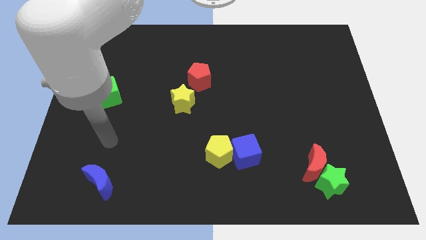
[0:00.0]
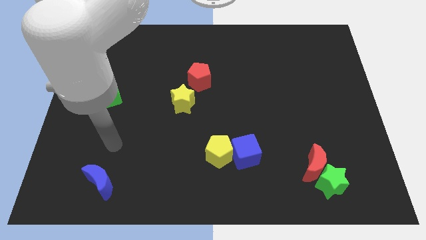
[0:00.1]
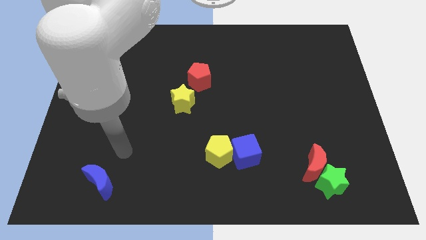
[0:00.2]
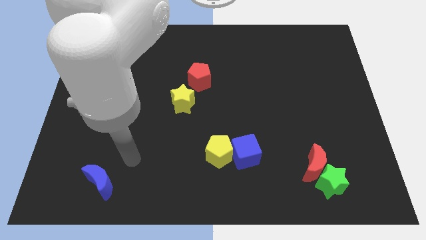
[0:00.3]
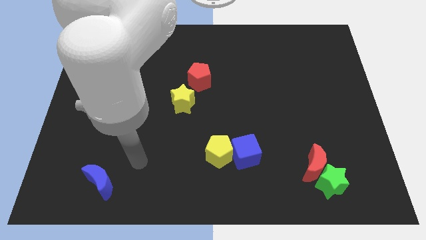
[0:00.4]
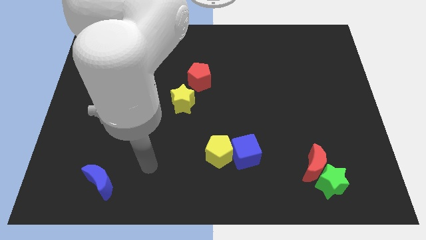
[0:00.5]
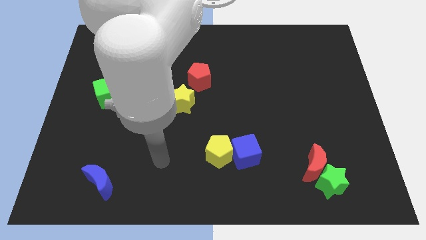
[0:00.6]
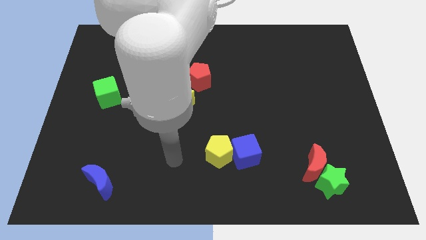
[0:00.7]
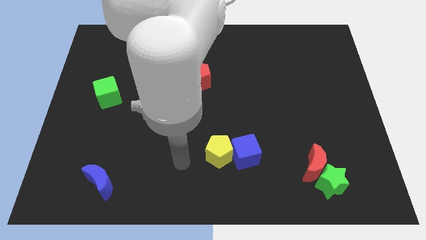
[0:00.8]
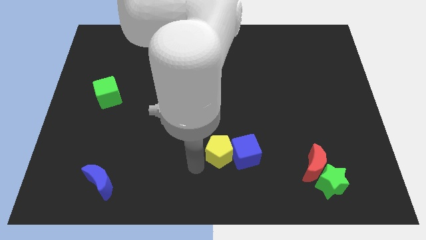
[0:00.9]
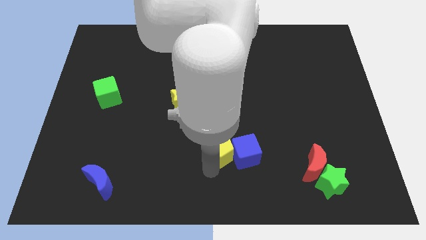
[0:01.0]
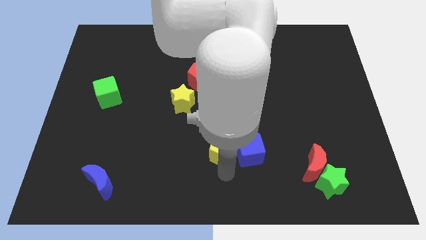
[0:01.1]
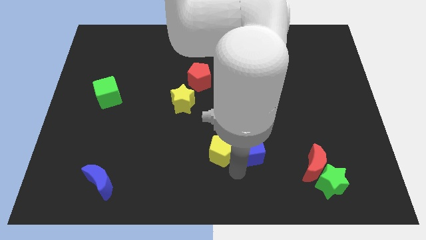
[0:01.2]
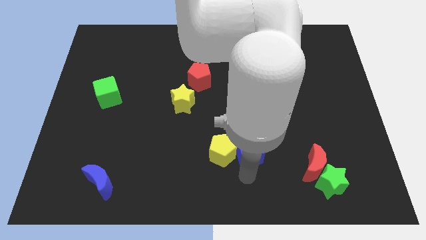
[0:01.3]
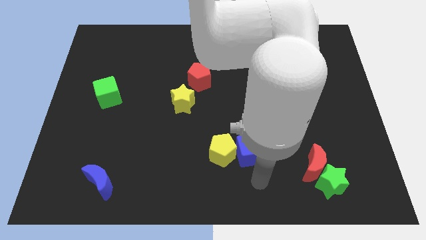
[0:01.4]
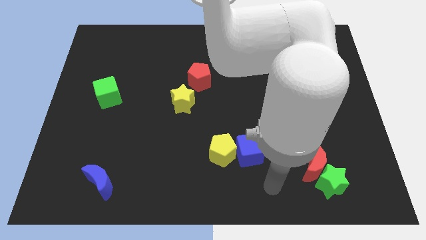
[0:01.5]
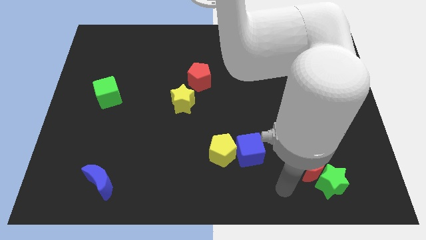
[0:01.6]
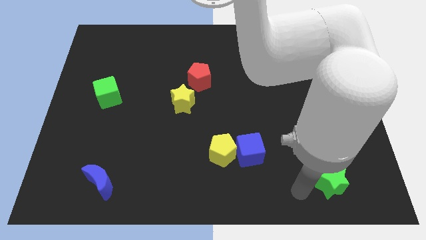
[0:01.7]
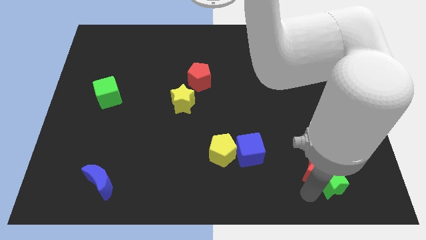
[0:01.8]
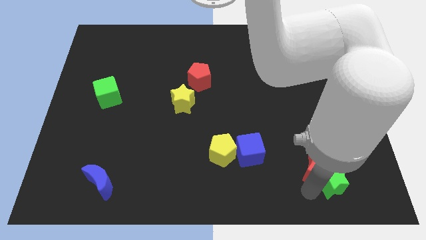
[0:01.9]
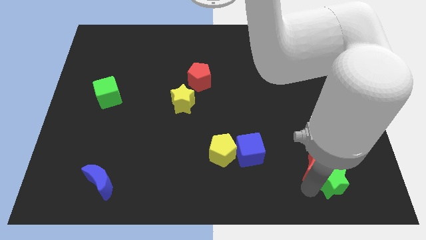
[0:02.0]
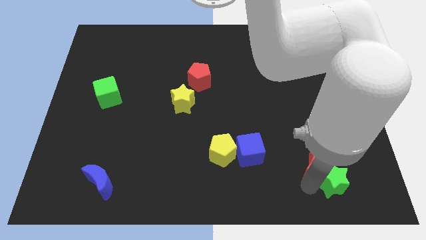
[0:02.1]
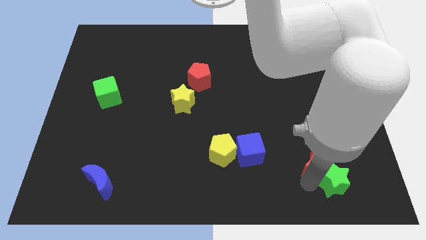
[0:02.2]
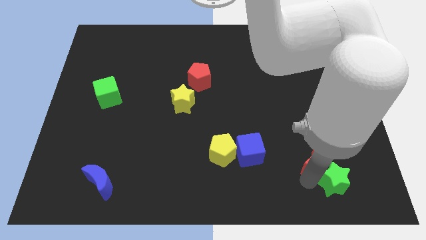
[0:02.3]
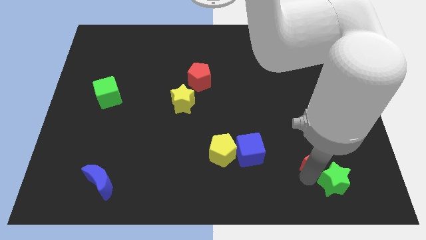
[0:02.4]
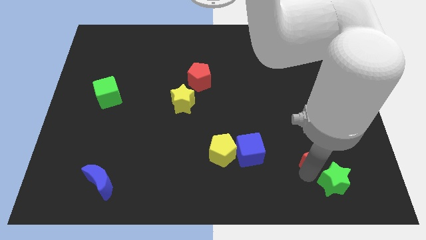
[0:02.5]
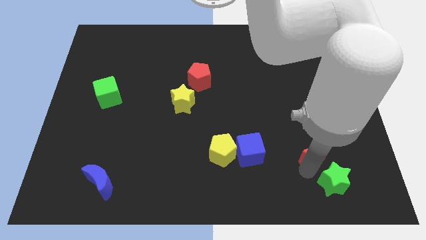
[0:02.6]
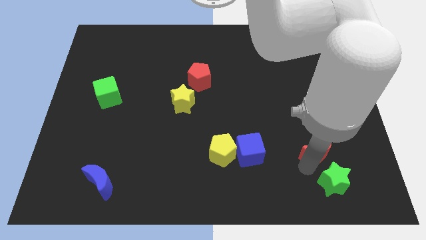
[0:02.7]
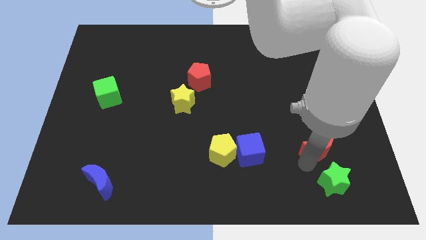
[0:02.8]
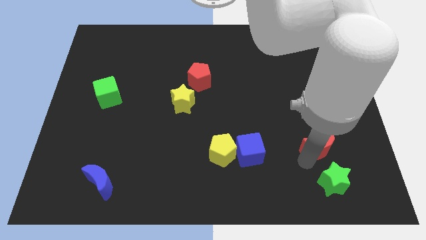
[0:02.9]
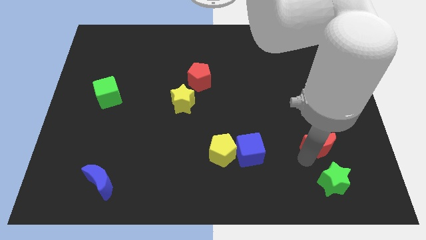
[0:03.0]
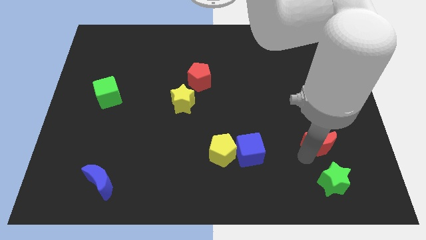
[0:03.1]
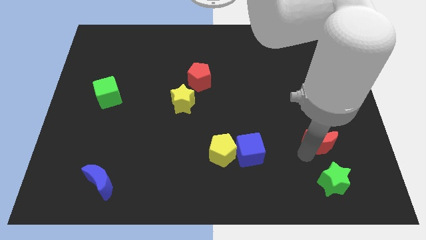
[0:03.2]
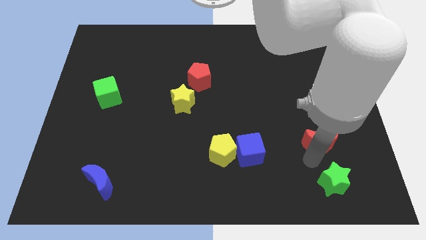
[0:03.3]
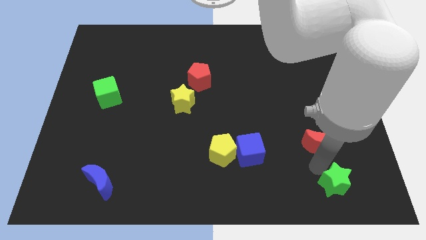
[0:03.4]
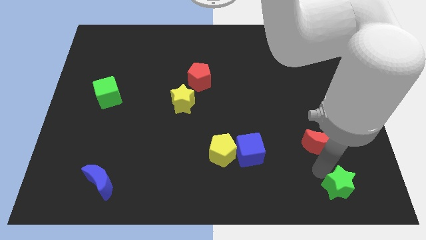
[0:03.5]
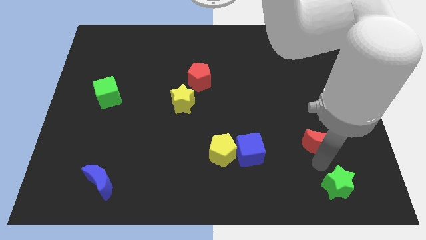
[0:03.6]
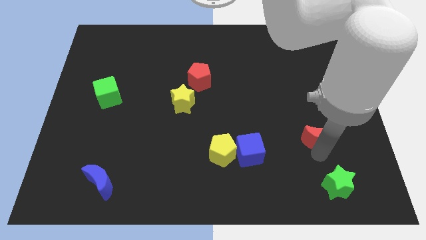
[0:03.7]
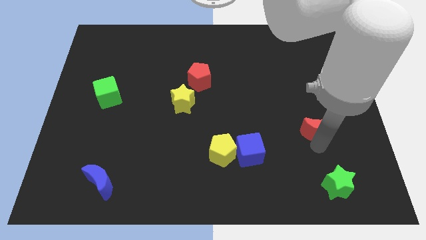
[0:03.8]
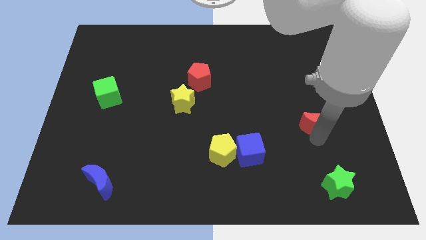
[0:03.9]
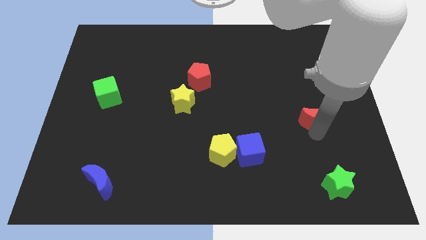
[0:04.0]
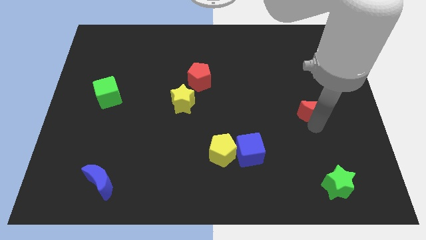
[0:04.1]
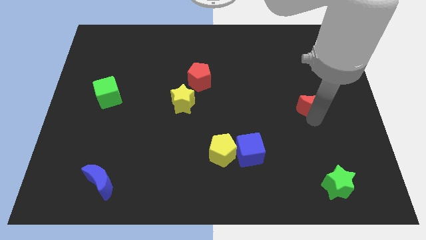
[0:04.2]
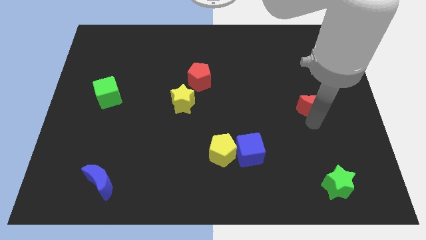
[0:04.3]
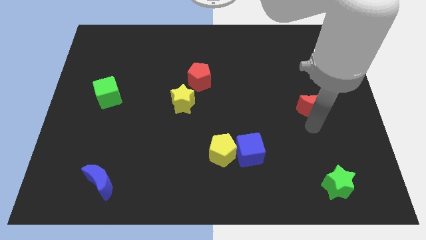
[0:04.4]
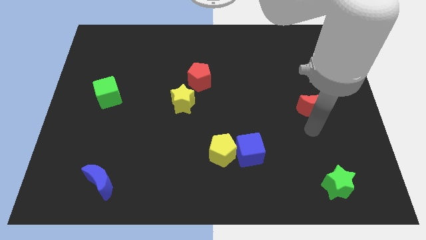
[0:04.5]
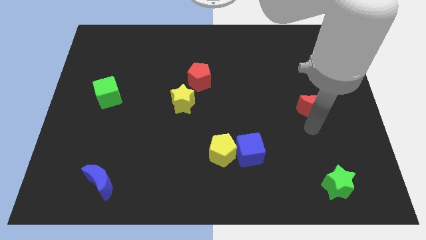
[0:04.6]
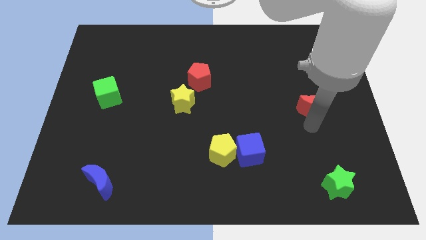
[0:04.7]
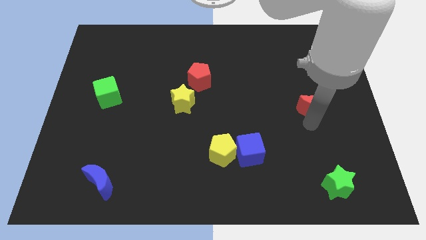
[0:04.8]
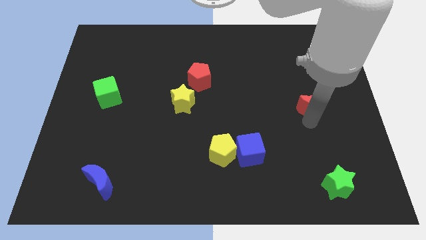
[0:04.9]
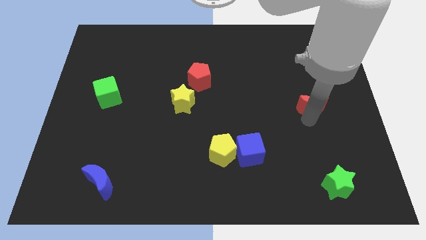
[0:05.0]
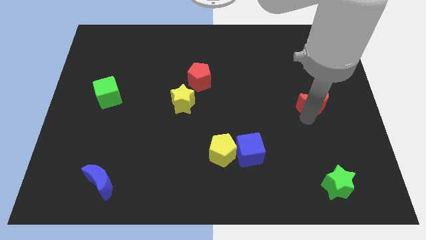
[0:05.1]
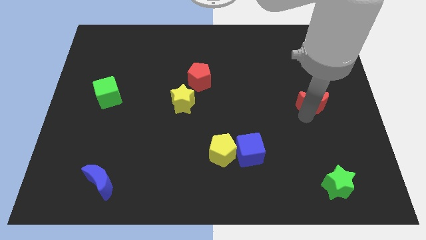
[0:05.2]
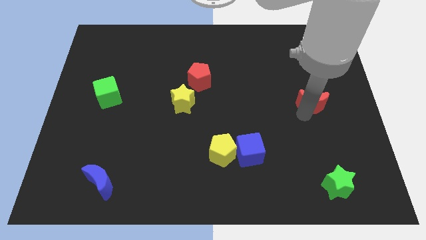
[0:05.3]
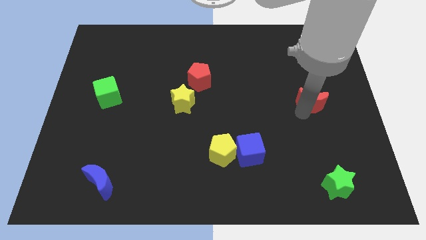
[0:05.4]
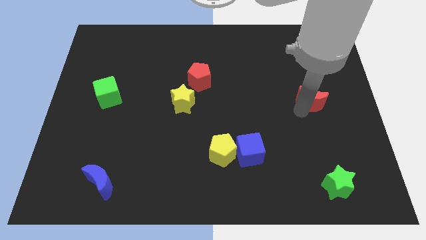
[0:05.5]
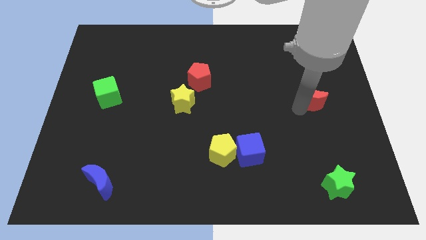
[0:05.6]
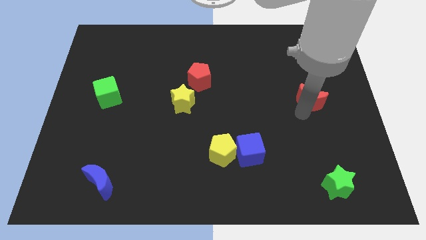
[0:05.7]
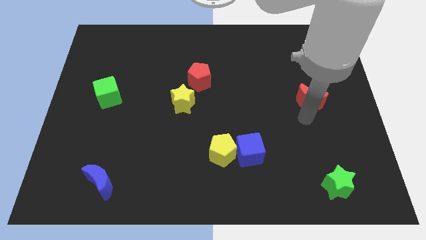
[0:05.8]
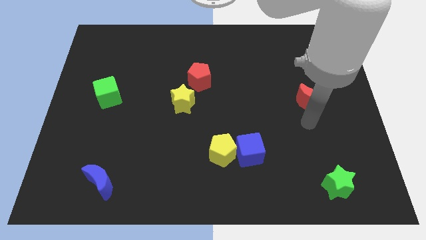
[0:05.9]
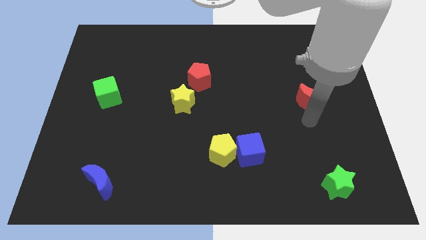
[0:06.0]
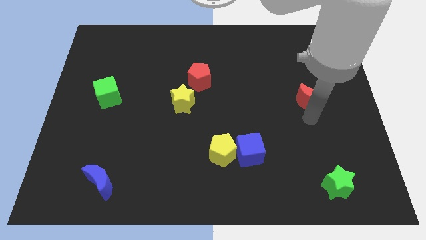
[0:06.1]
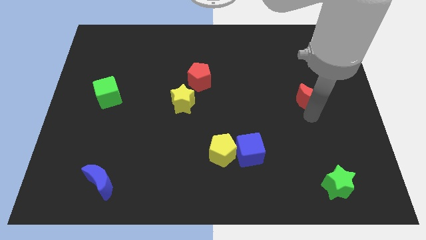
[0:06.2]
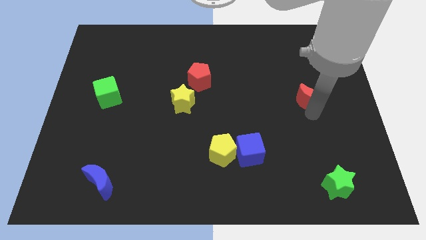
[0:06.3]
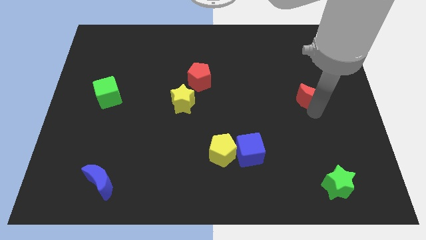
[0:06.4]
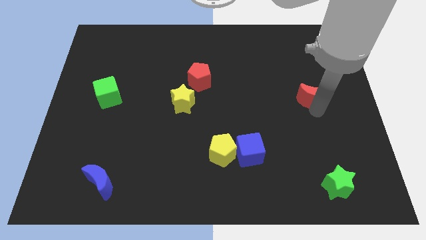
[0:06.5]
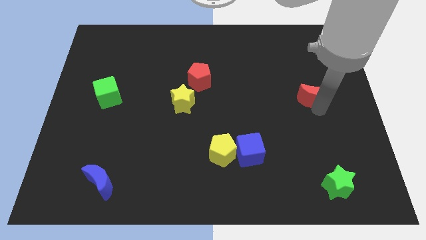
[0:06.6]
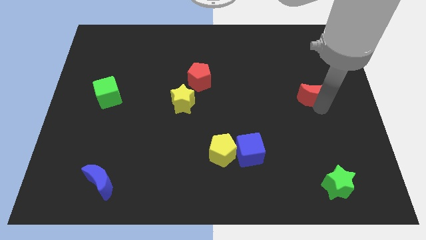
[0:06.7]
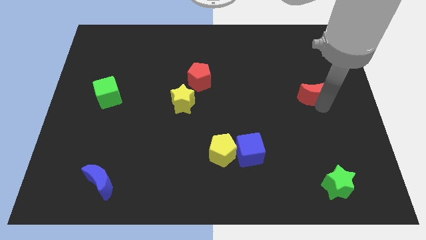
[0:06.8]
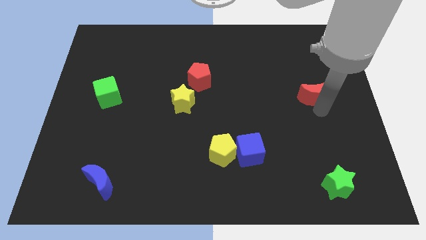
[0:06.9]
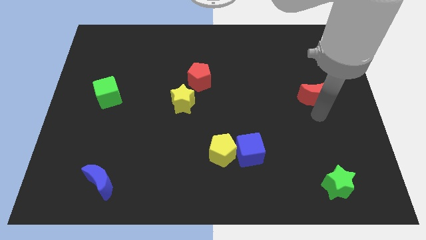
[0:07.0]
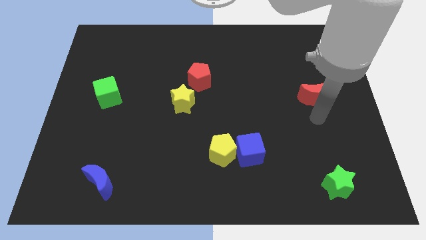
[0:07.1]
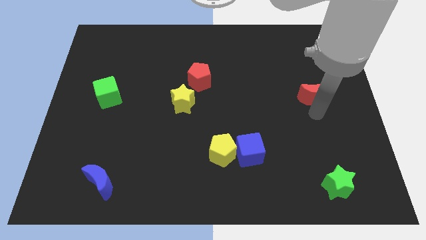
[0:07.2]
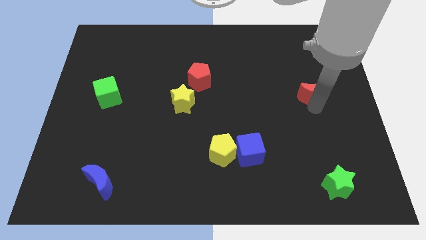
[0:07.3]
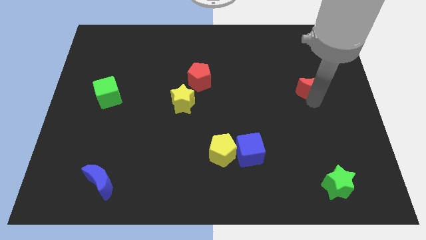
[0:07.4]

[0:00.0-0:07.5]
slide the red moon upwards

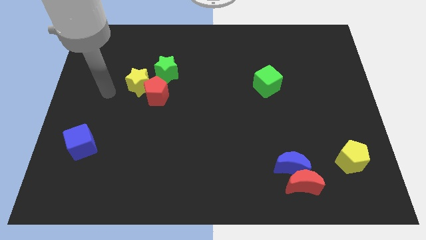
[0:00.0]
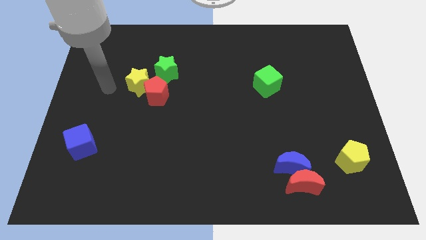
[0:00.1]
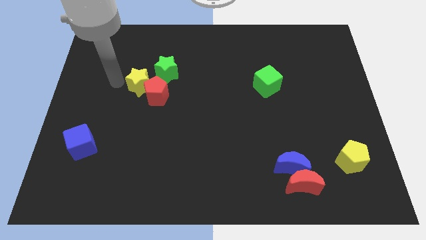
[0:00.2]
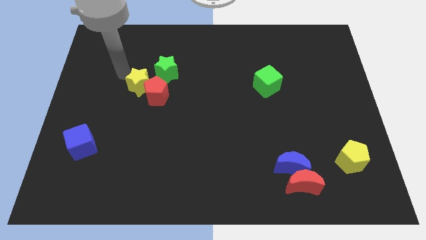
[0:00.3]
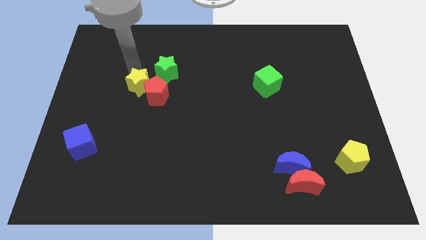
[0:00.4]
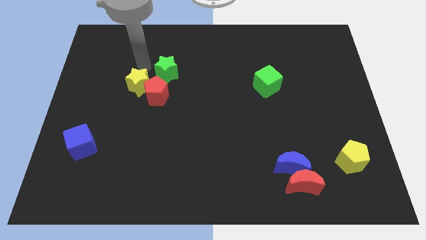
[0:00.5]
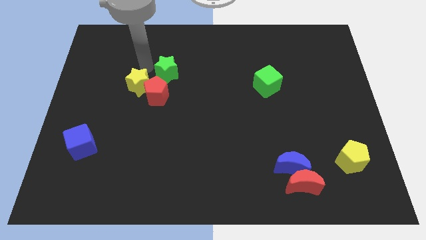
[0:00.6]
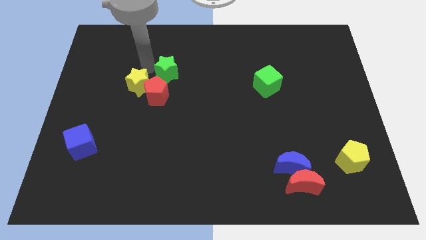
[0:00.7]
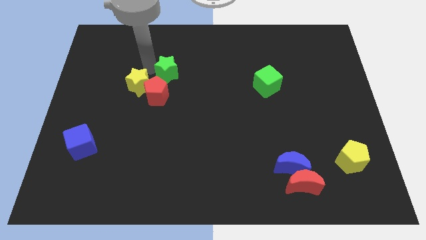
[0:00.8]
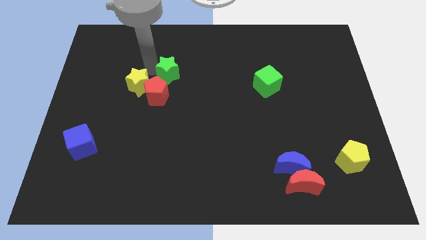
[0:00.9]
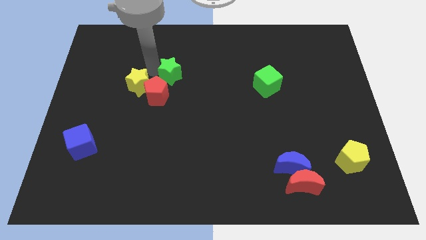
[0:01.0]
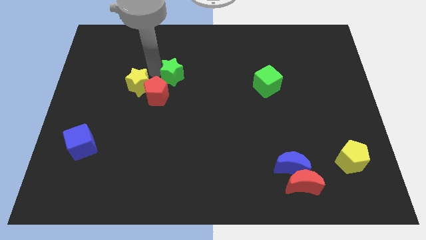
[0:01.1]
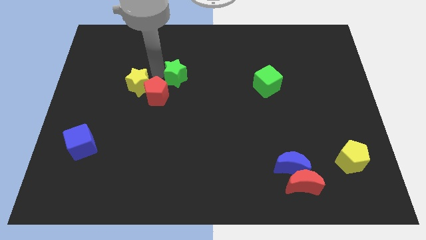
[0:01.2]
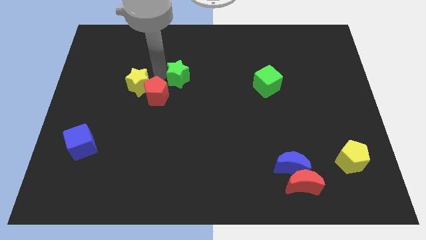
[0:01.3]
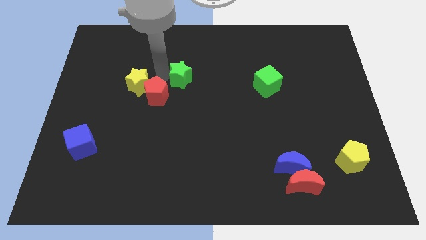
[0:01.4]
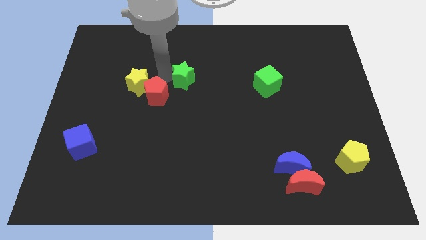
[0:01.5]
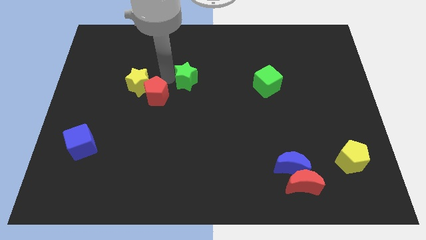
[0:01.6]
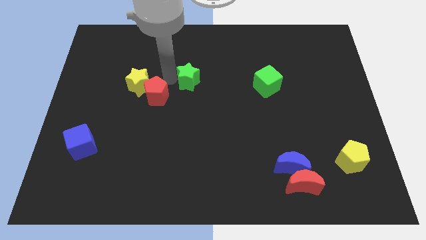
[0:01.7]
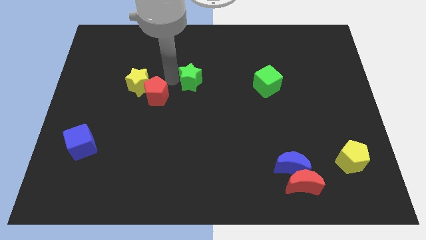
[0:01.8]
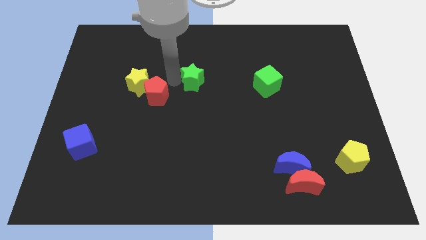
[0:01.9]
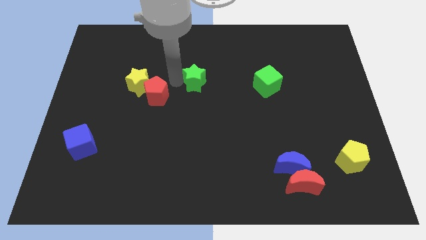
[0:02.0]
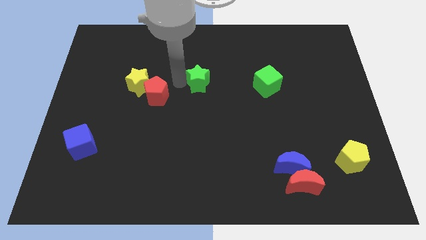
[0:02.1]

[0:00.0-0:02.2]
move the green star right a little
